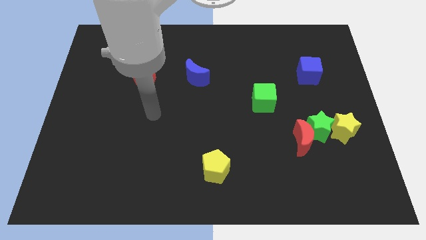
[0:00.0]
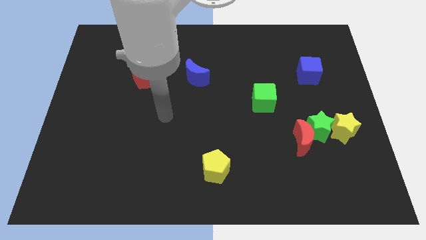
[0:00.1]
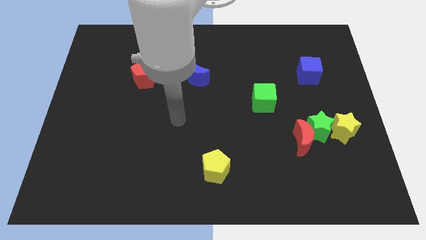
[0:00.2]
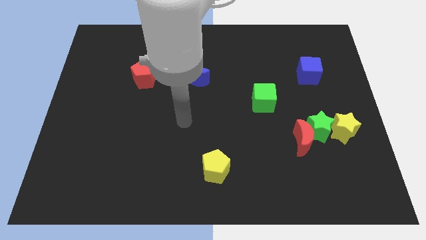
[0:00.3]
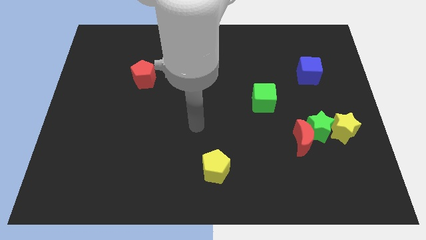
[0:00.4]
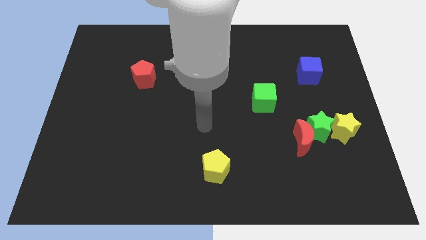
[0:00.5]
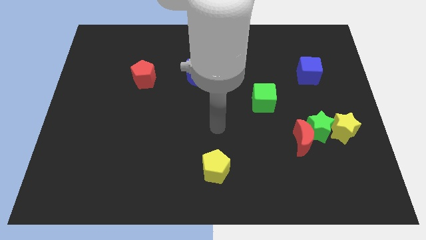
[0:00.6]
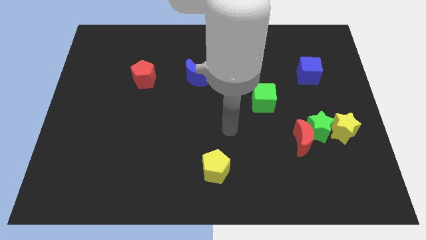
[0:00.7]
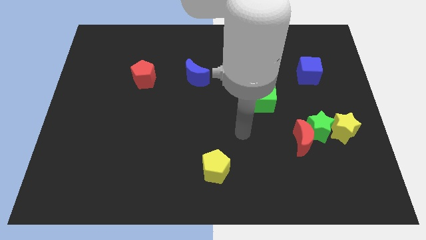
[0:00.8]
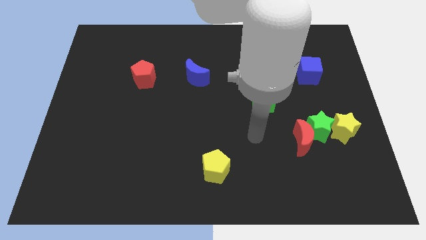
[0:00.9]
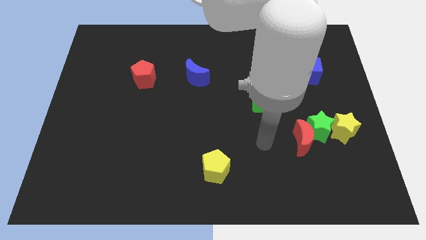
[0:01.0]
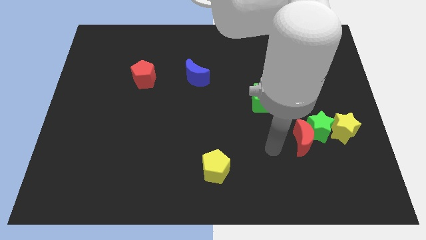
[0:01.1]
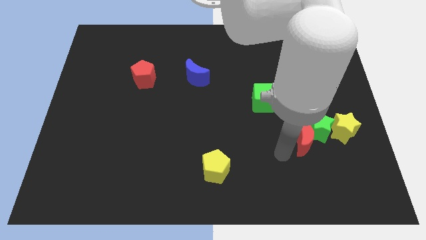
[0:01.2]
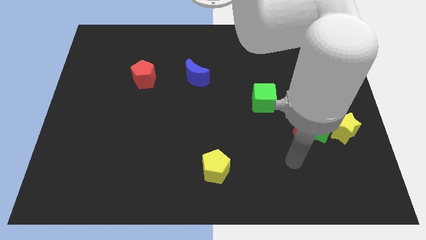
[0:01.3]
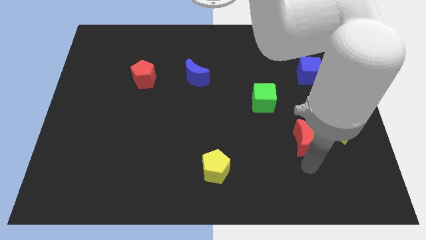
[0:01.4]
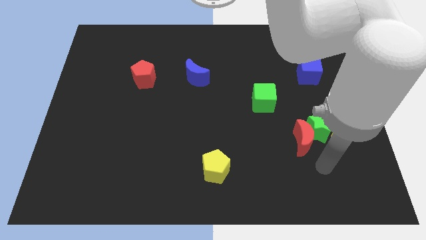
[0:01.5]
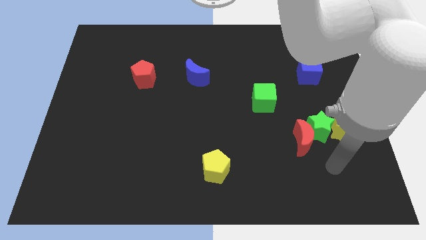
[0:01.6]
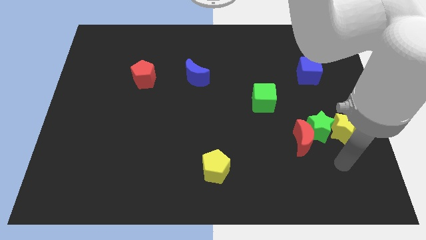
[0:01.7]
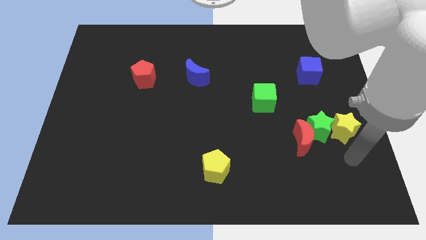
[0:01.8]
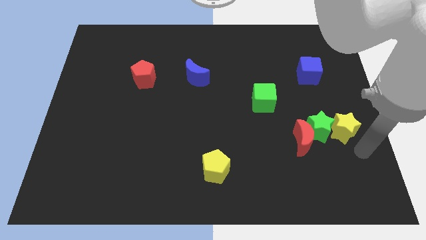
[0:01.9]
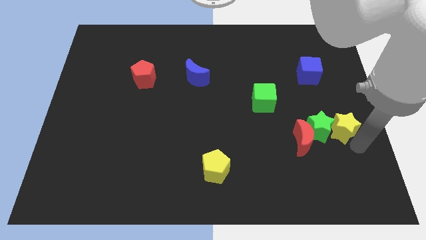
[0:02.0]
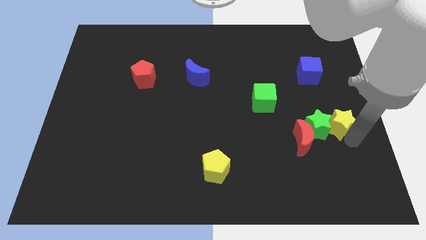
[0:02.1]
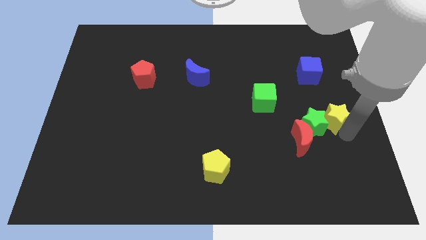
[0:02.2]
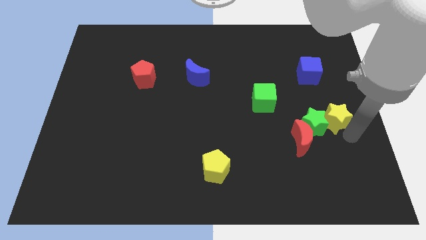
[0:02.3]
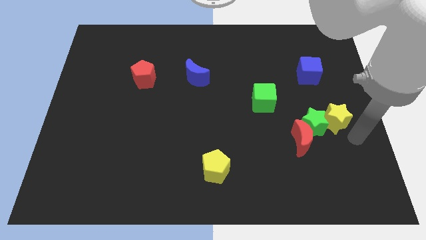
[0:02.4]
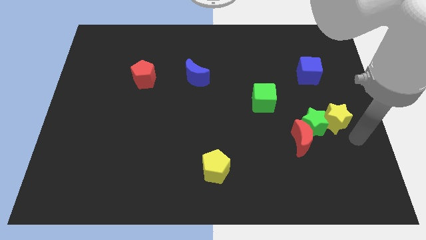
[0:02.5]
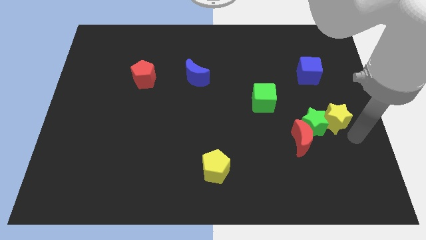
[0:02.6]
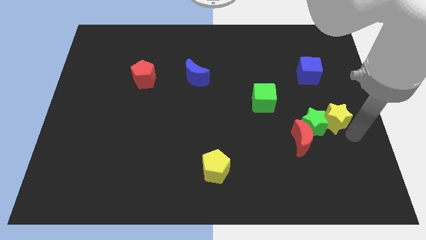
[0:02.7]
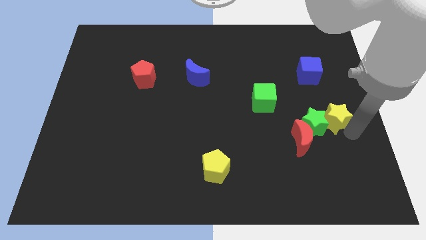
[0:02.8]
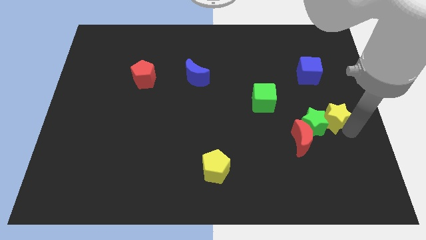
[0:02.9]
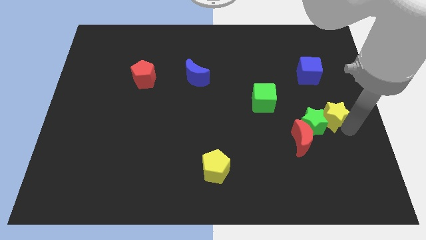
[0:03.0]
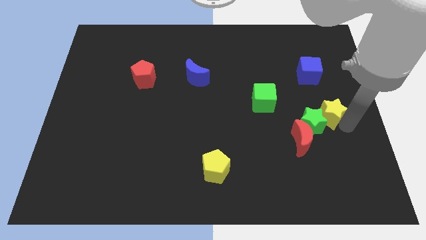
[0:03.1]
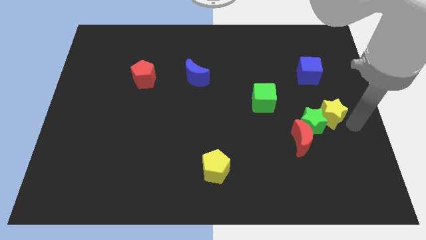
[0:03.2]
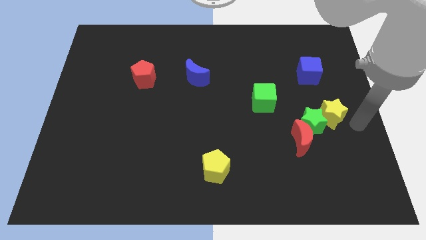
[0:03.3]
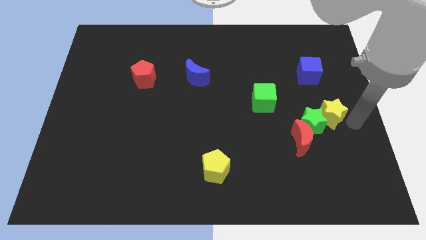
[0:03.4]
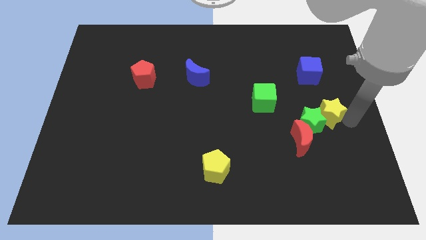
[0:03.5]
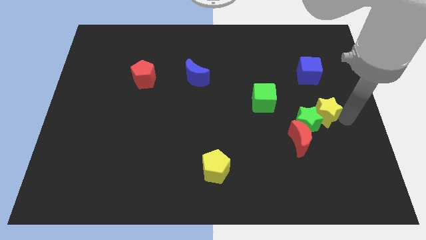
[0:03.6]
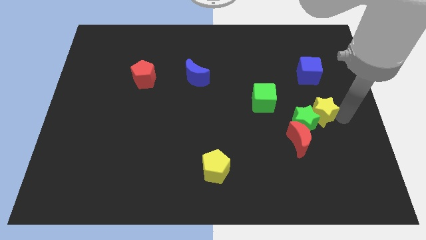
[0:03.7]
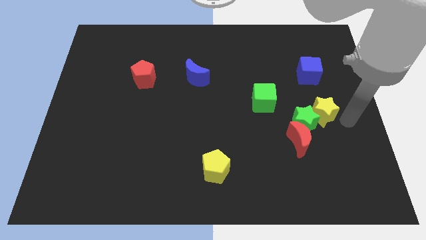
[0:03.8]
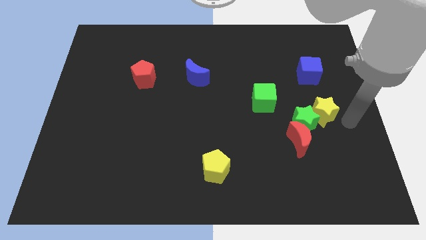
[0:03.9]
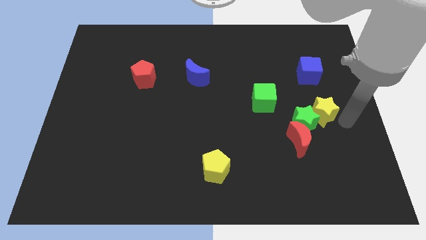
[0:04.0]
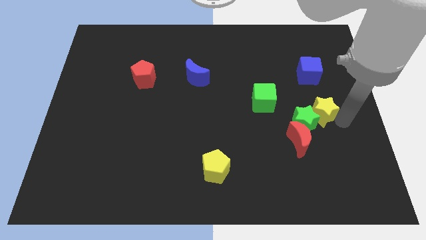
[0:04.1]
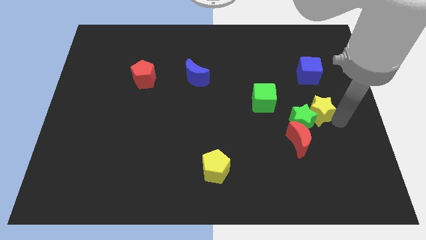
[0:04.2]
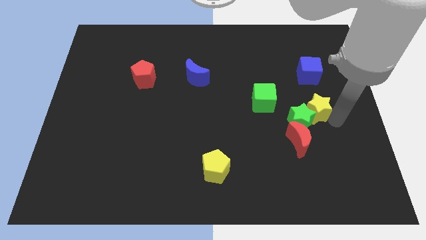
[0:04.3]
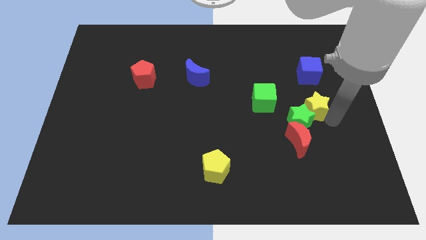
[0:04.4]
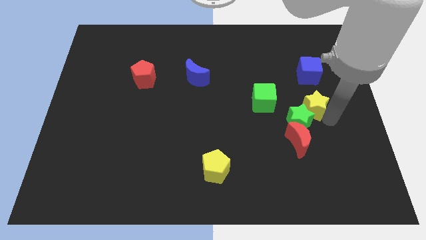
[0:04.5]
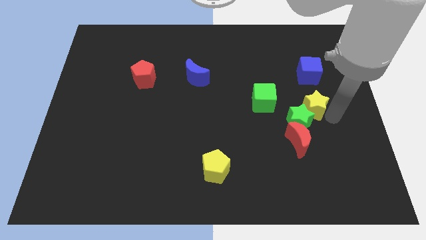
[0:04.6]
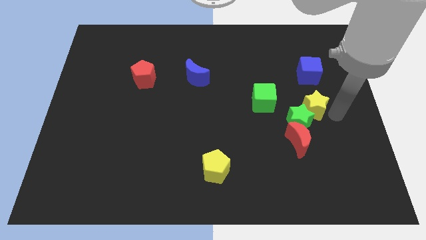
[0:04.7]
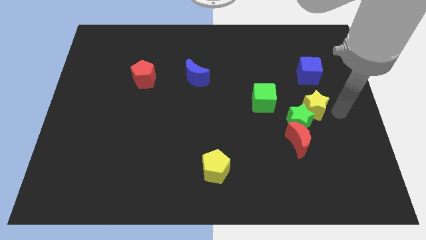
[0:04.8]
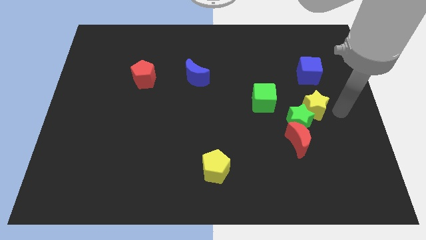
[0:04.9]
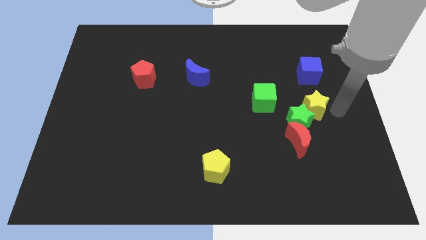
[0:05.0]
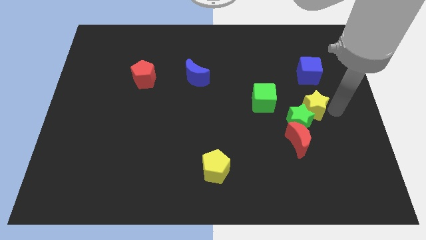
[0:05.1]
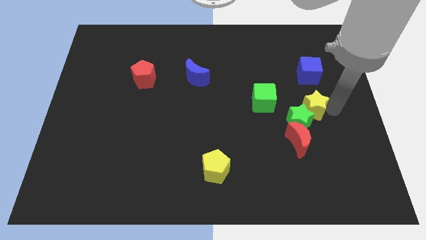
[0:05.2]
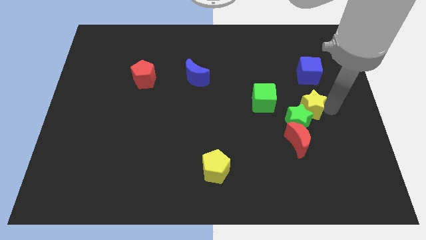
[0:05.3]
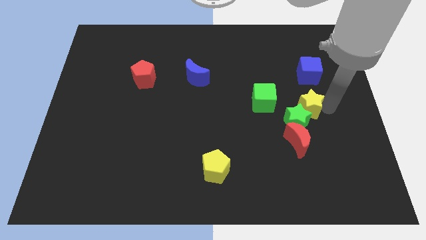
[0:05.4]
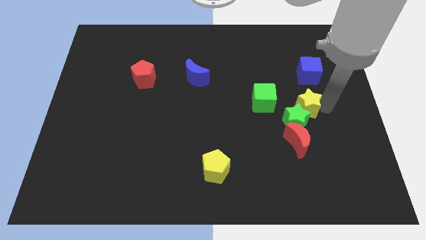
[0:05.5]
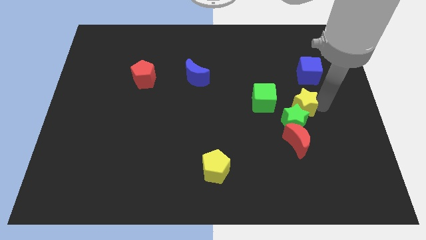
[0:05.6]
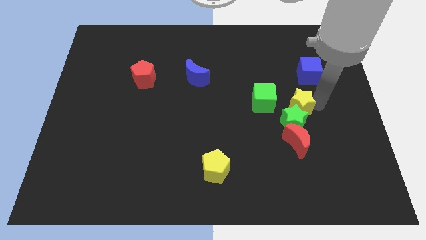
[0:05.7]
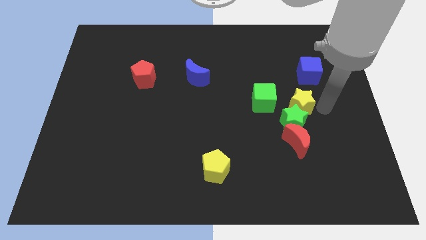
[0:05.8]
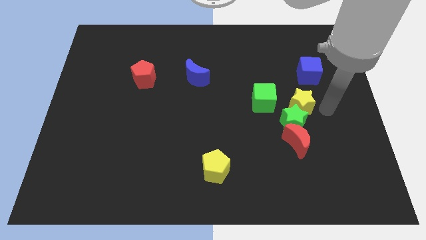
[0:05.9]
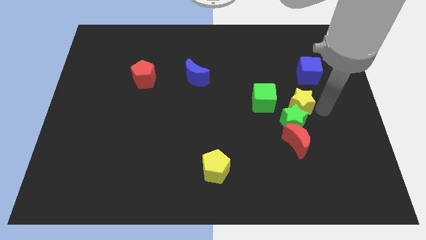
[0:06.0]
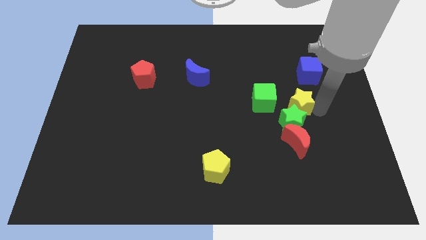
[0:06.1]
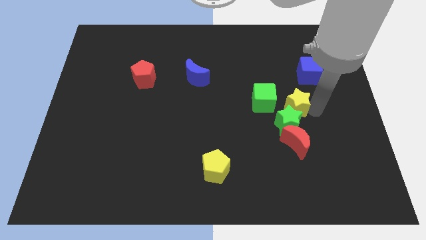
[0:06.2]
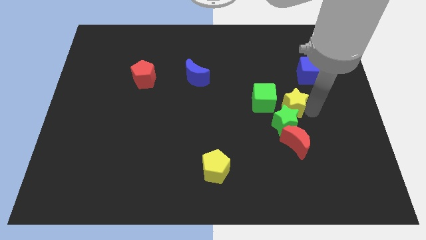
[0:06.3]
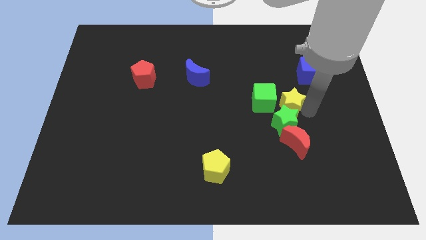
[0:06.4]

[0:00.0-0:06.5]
move the yellow star to the green cube
